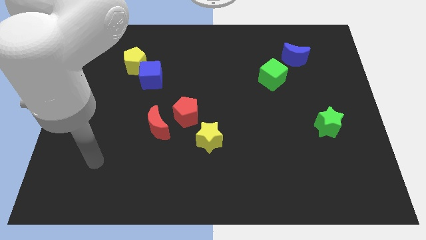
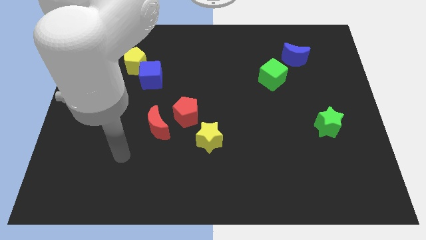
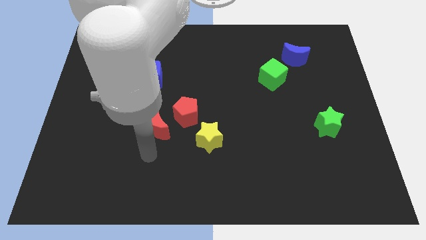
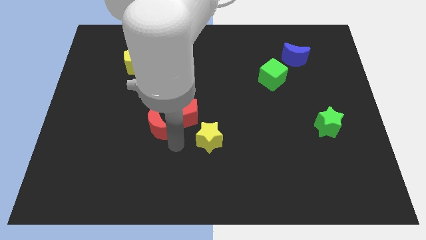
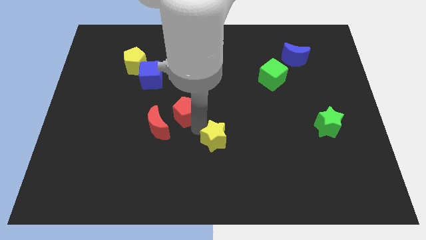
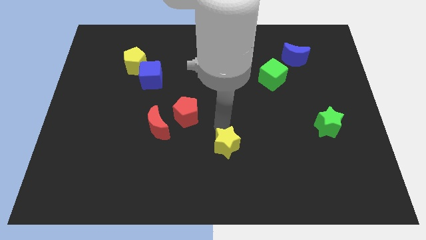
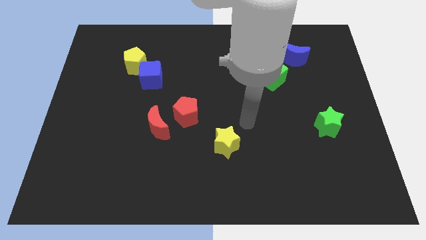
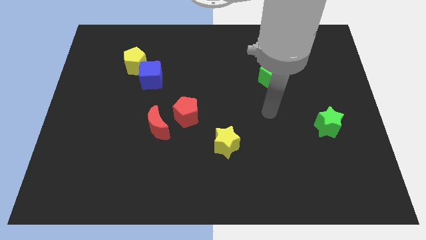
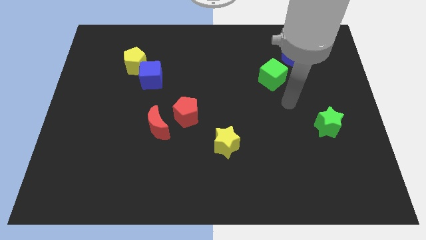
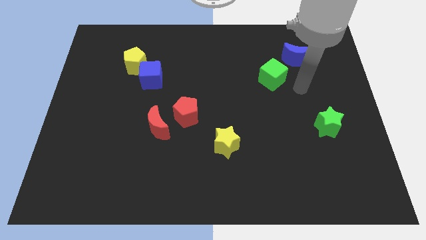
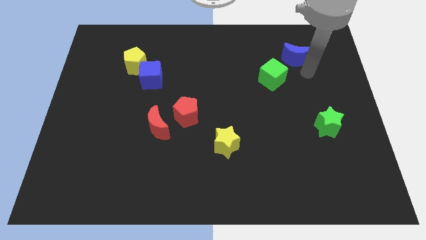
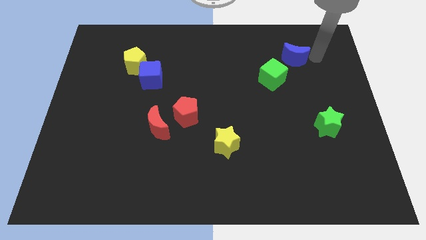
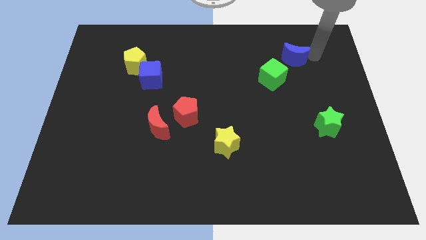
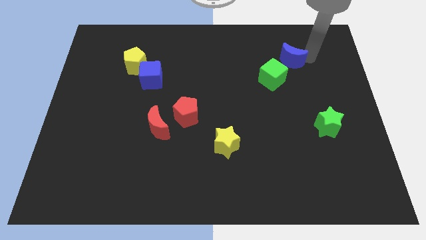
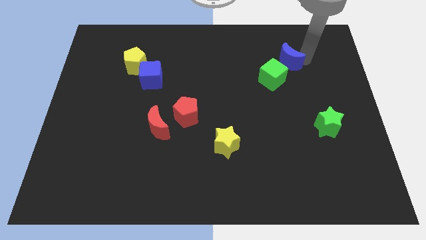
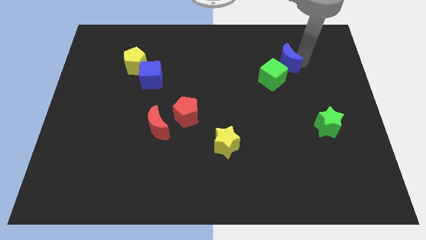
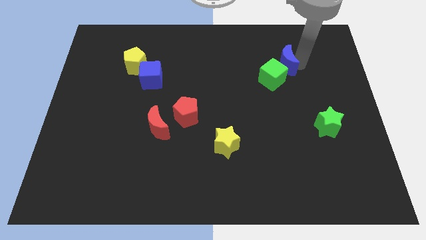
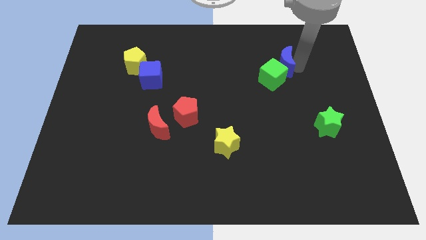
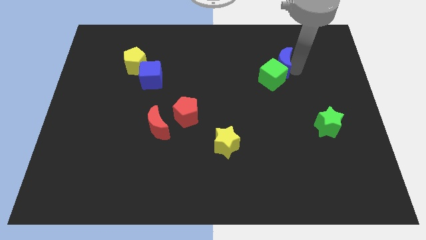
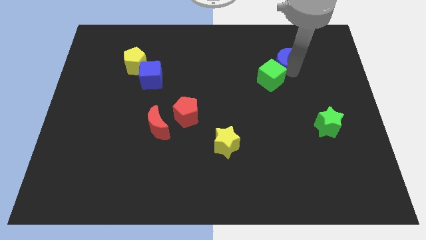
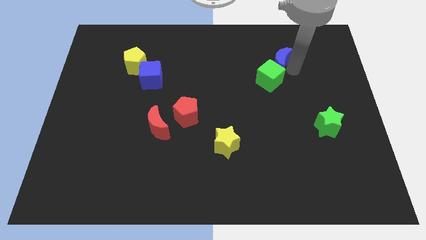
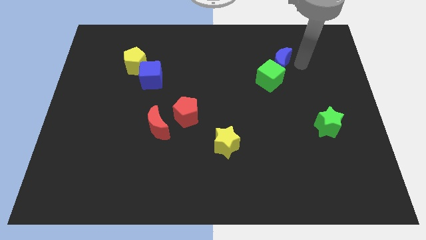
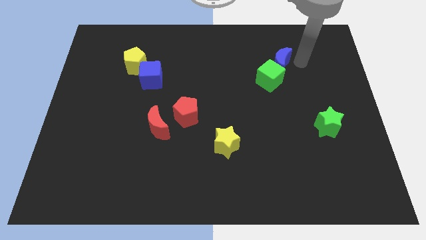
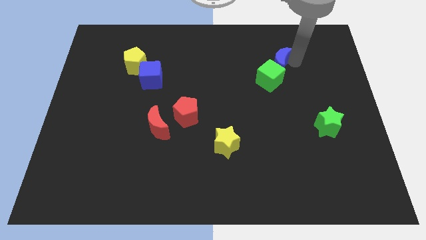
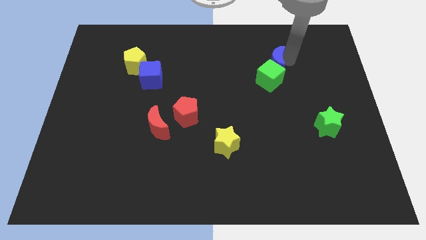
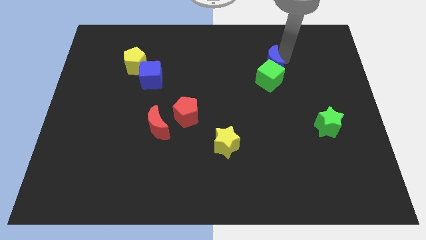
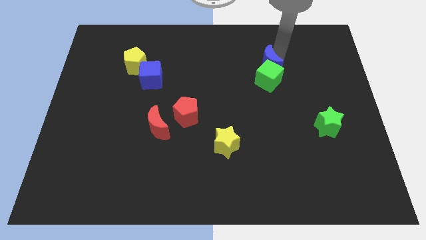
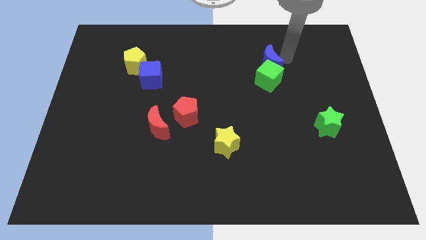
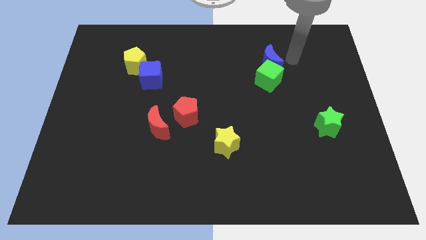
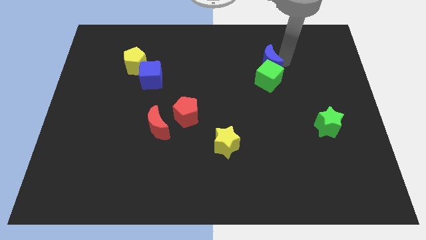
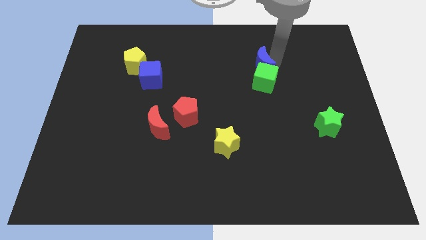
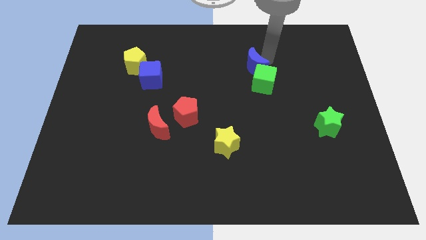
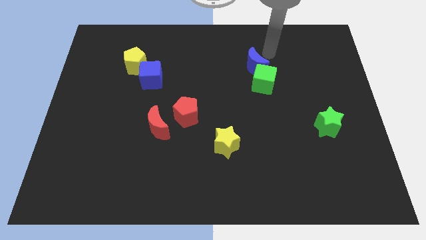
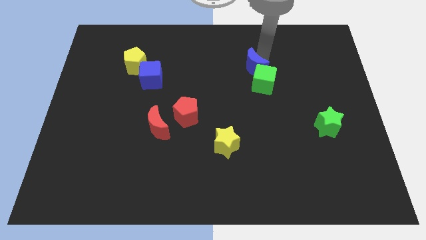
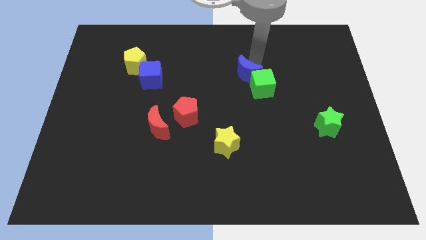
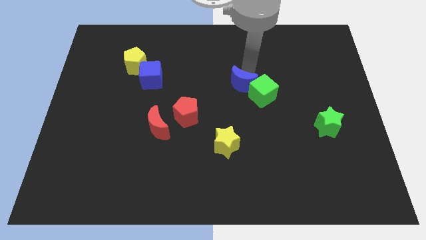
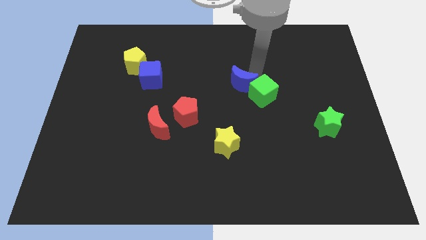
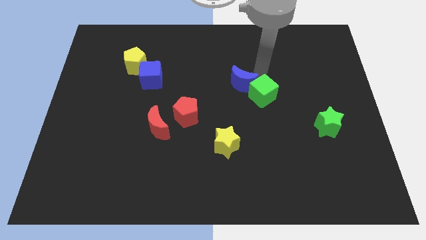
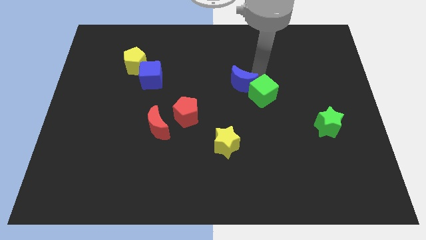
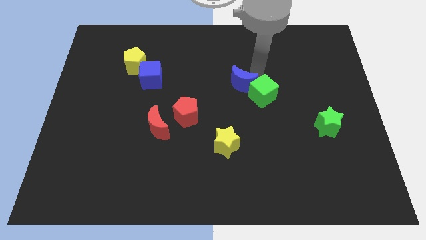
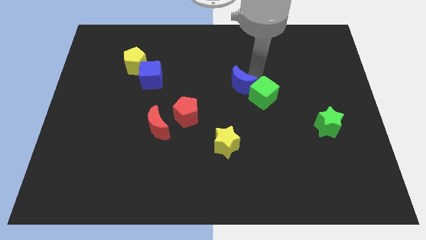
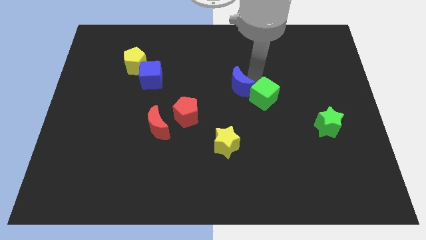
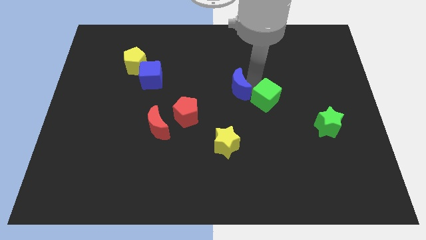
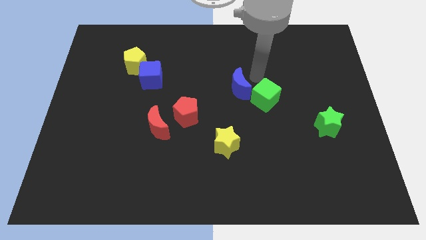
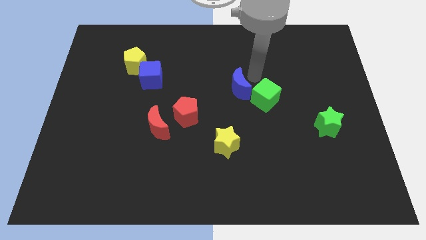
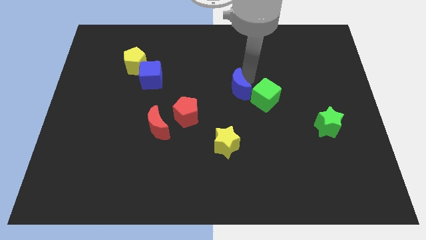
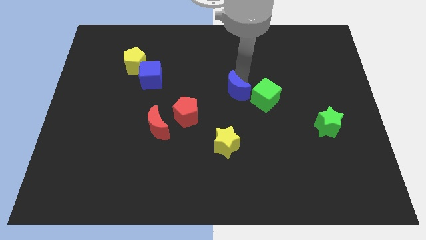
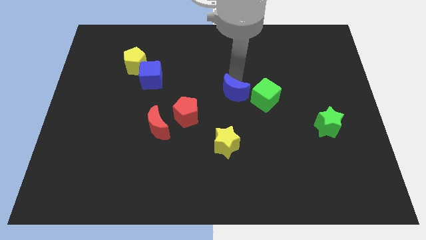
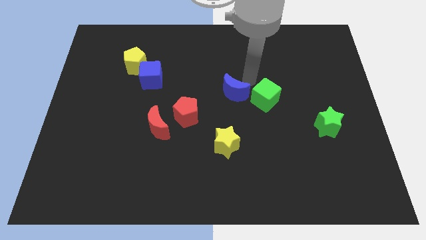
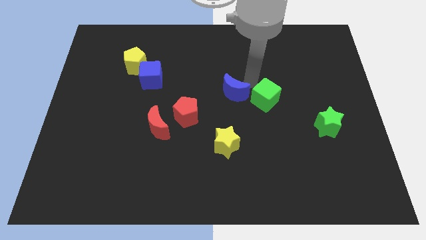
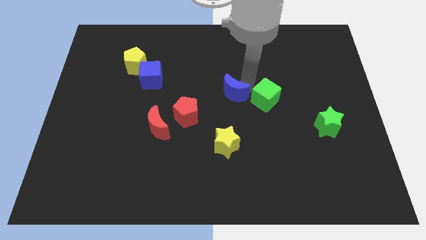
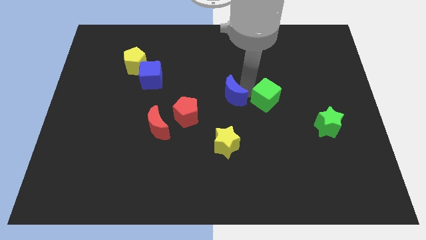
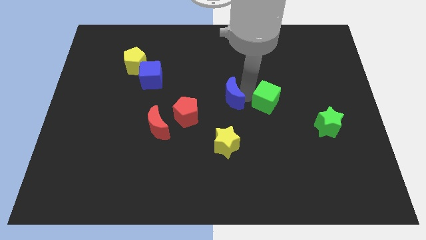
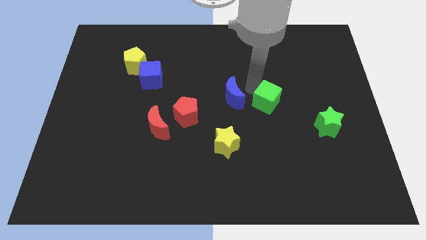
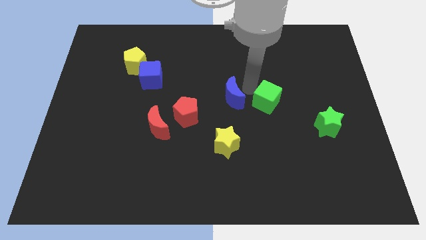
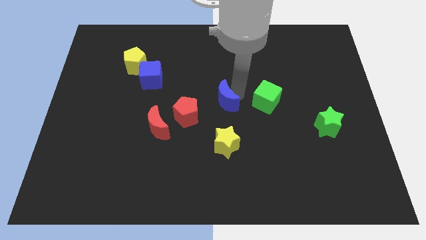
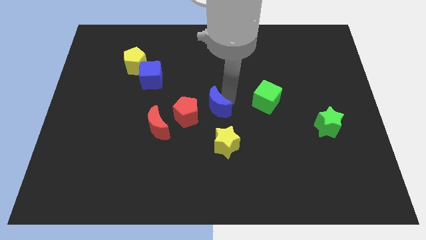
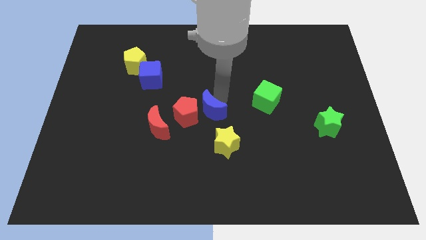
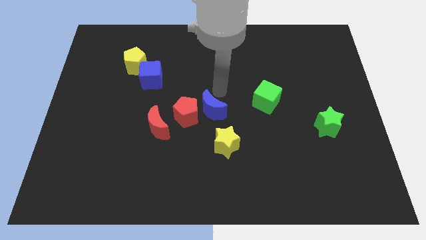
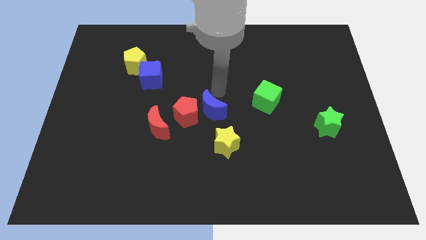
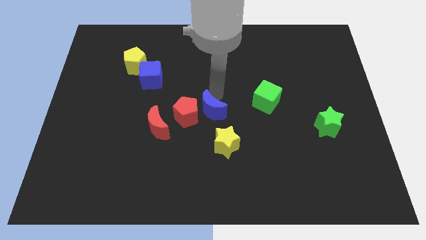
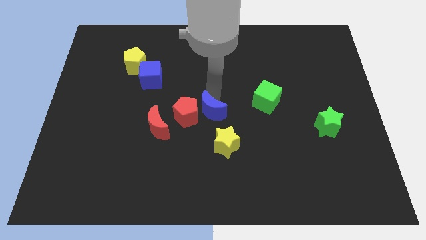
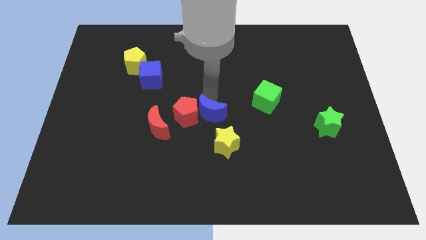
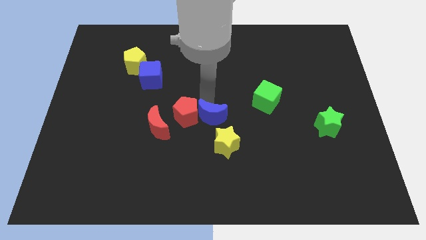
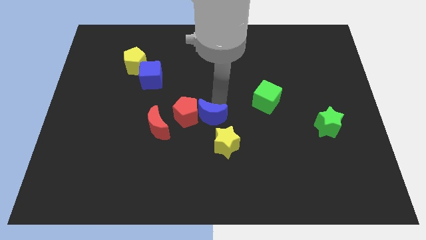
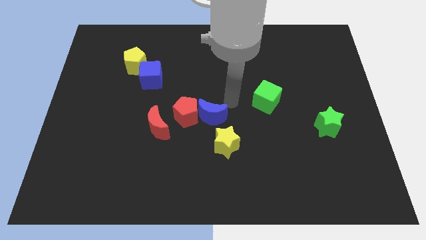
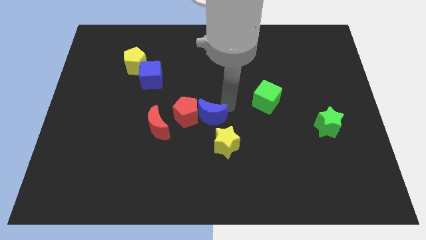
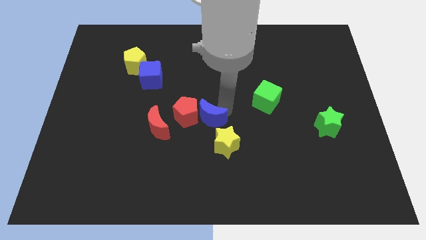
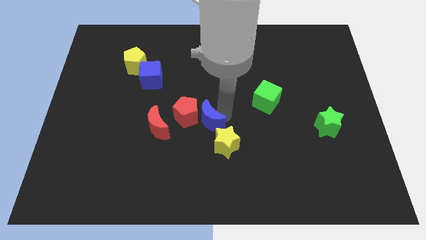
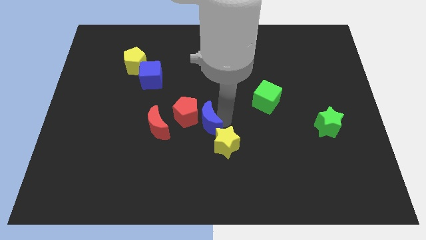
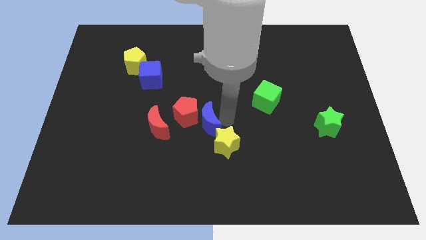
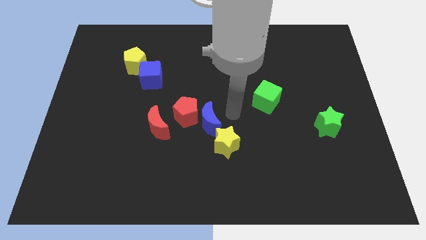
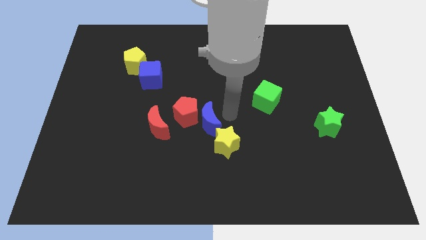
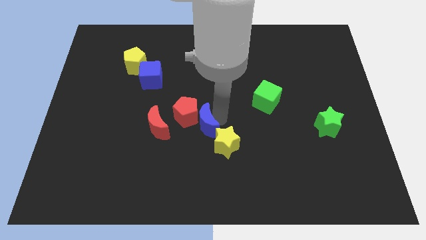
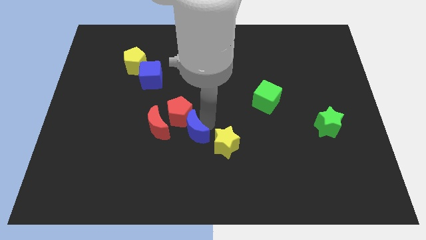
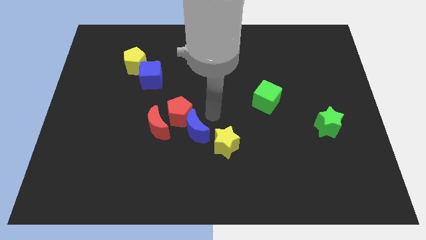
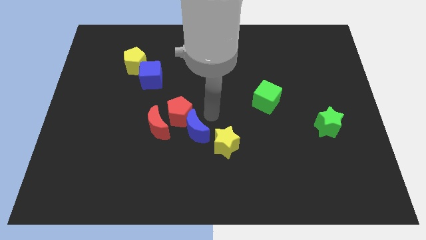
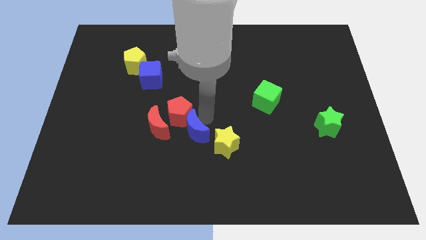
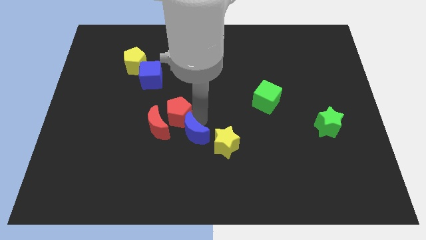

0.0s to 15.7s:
slide the blue moon diagonally down and to the right of the red moon
